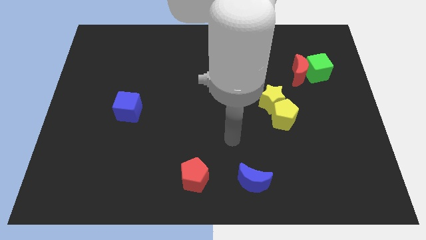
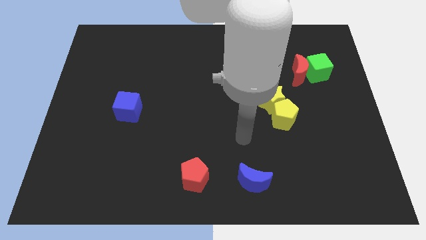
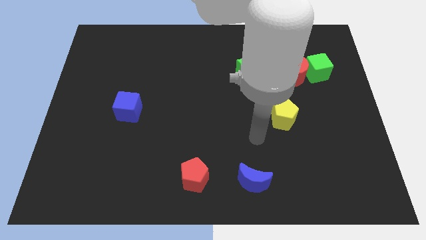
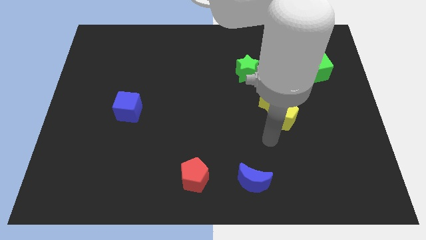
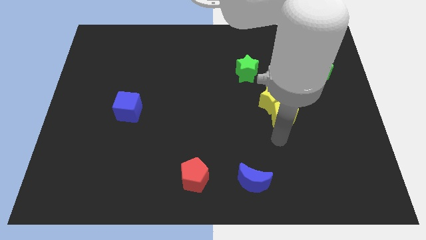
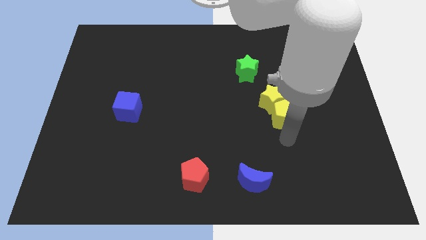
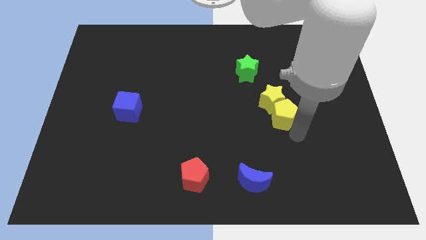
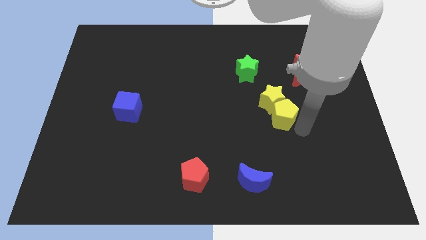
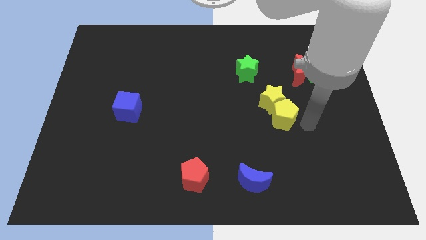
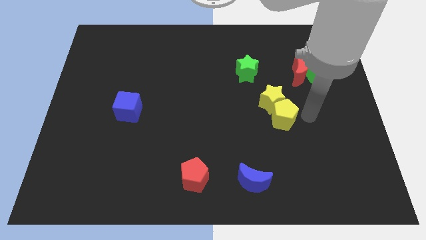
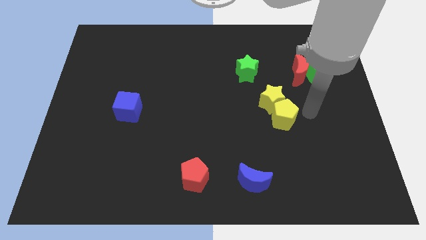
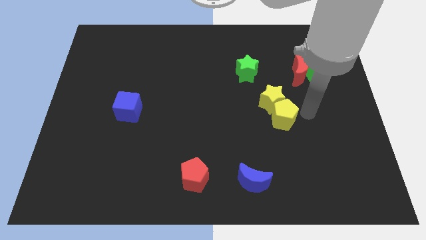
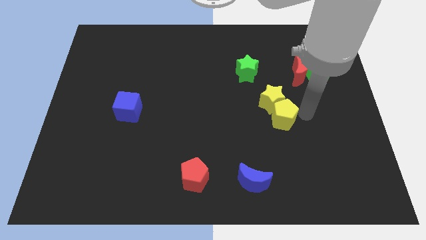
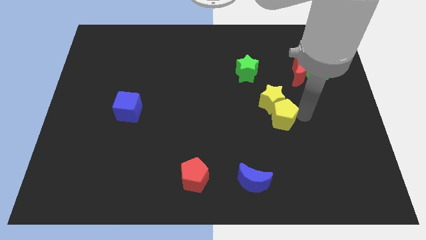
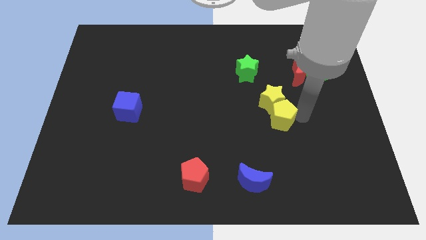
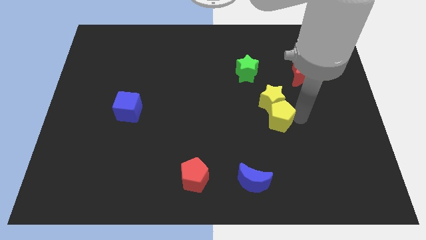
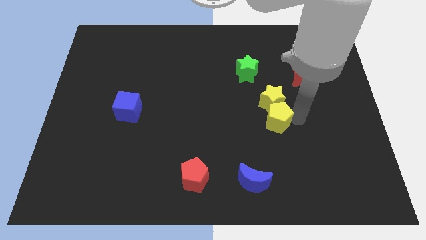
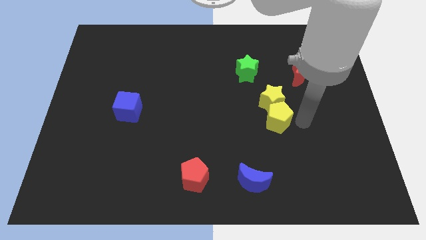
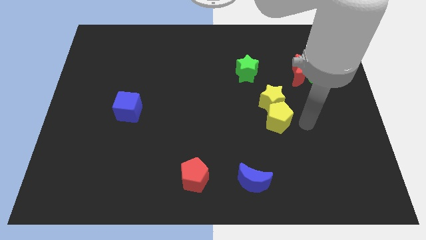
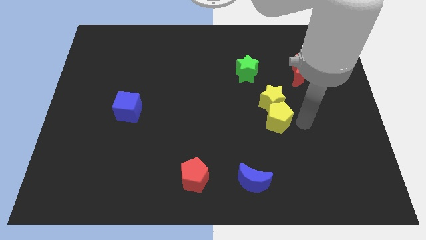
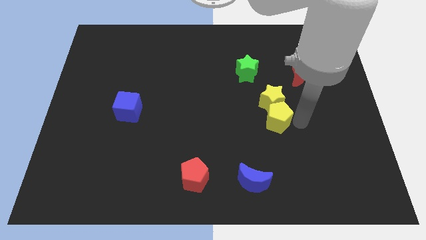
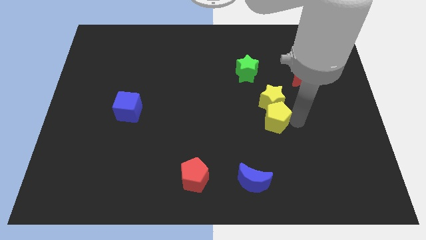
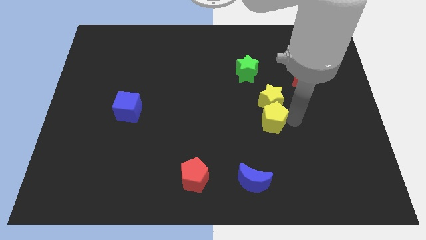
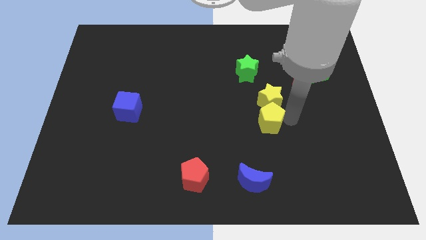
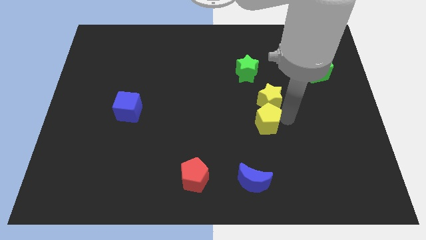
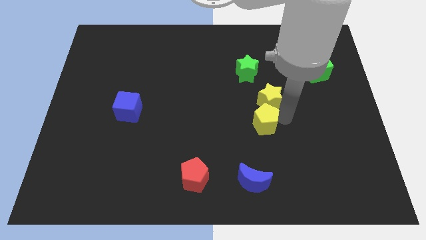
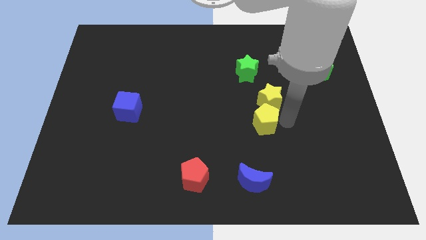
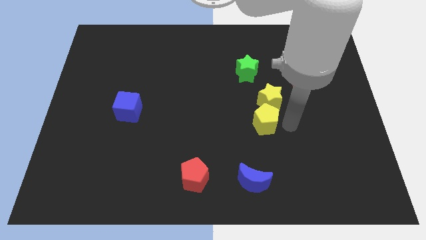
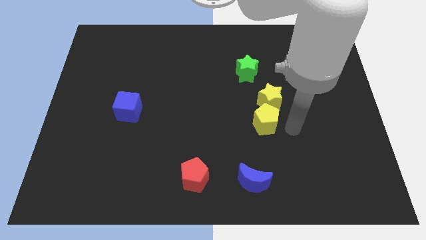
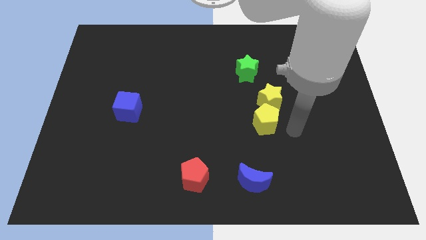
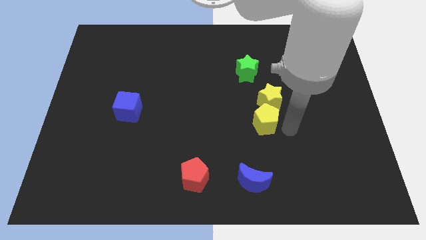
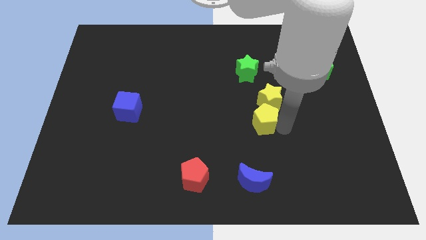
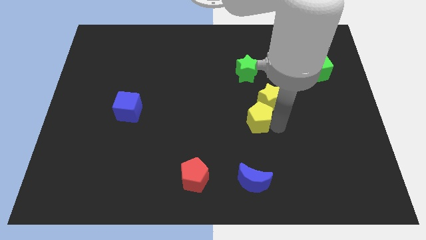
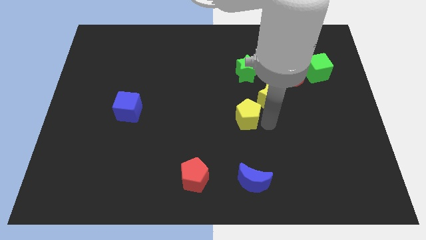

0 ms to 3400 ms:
push the yellow pentagon a little left

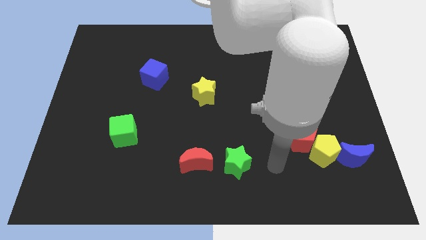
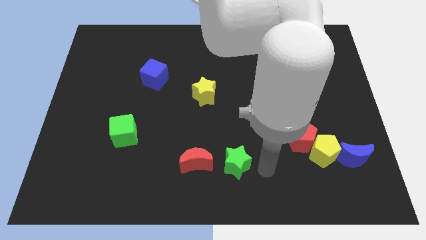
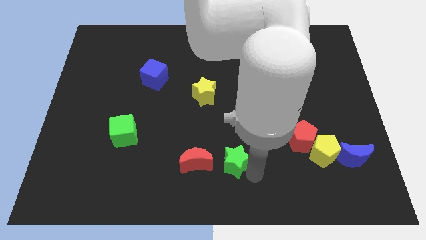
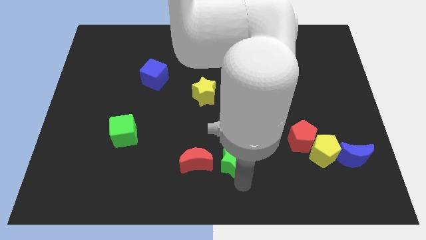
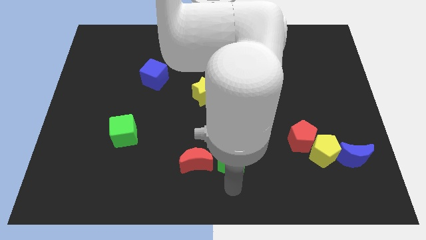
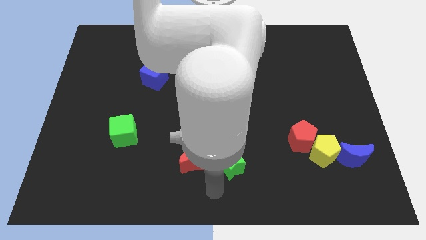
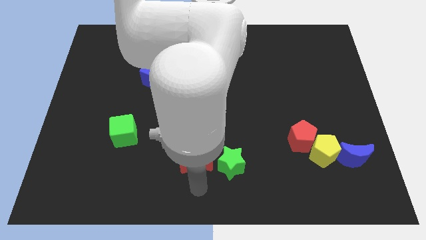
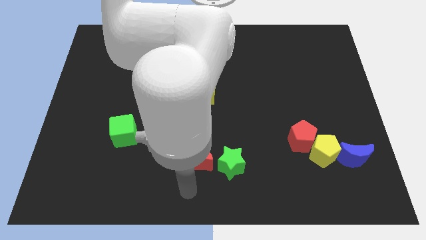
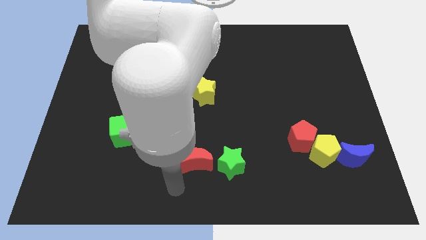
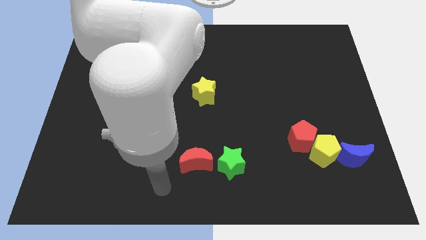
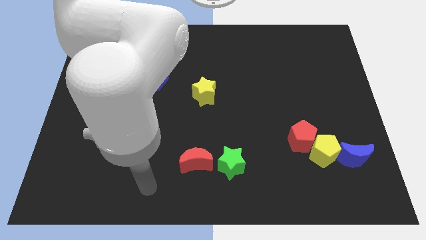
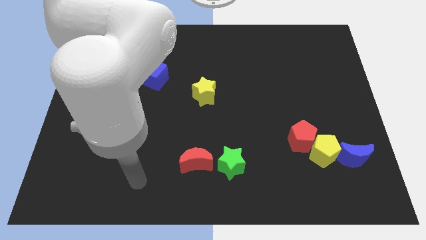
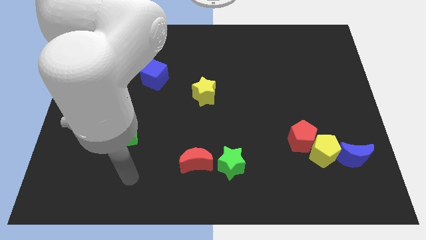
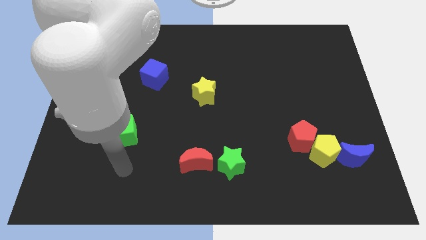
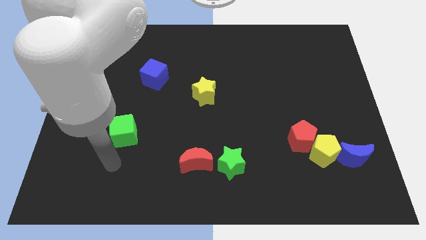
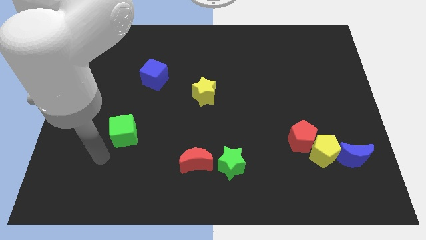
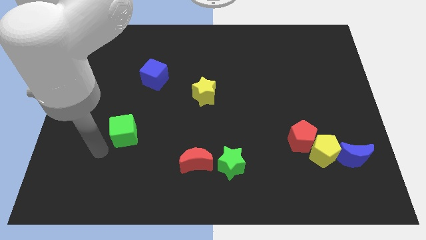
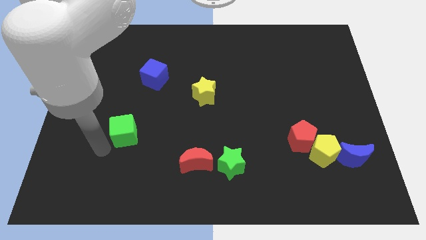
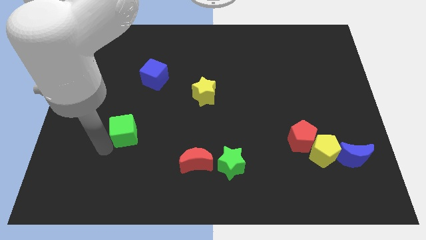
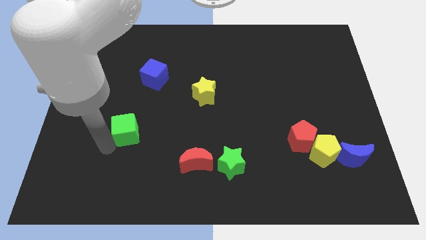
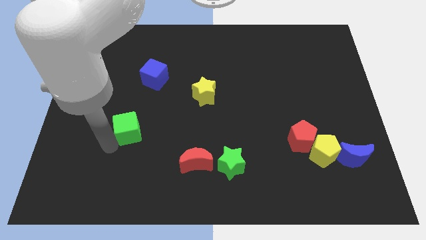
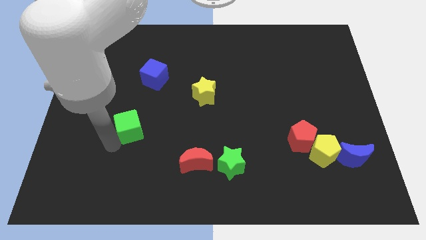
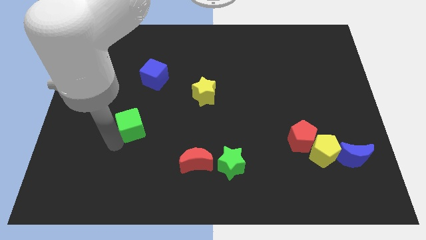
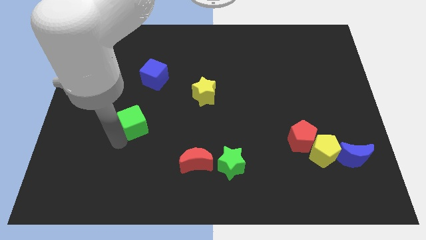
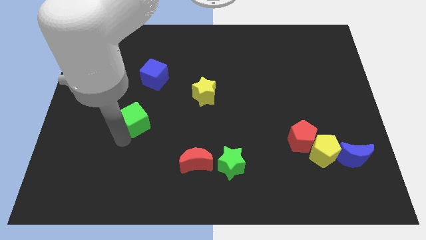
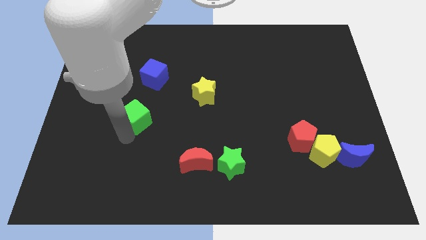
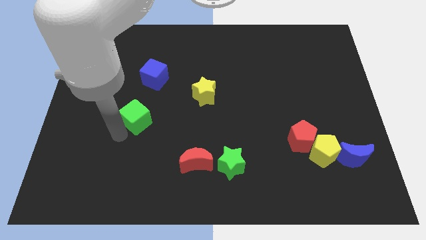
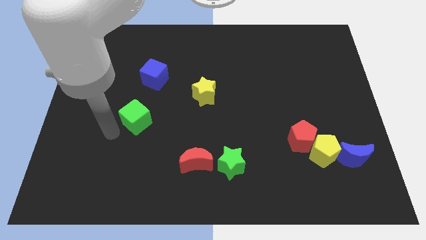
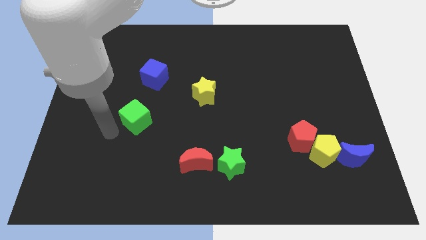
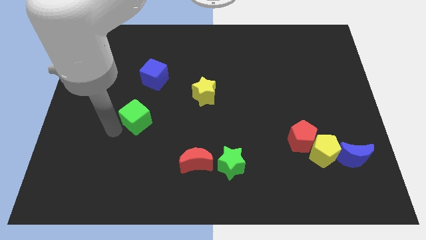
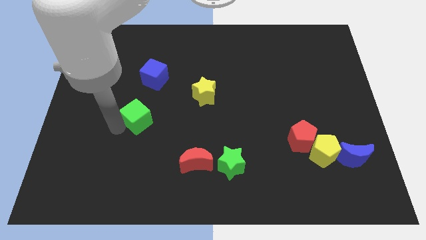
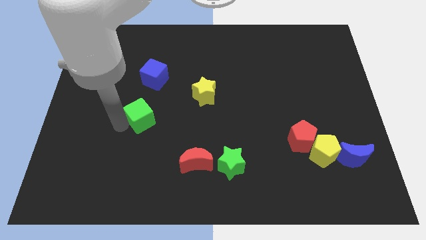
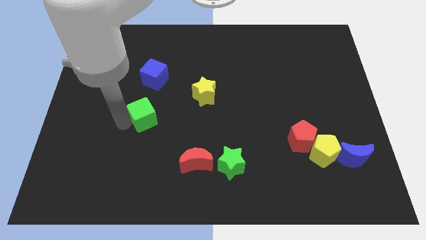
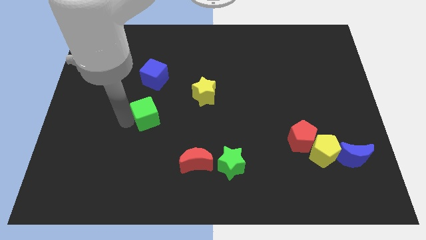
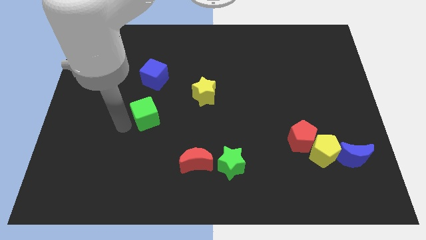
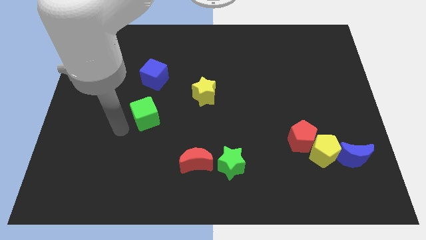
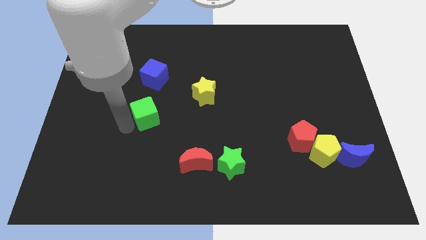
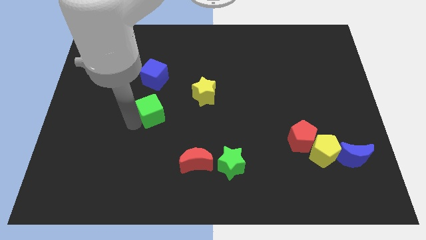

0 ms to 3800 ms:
push the green cube upwards and then to the right somewhat

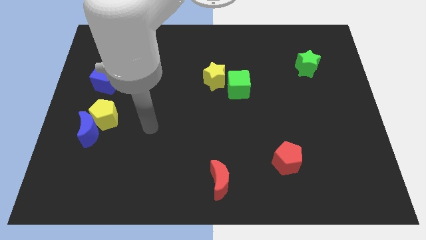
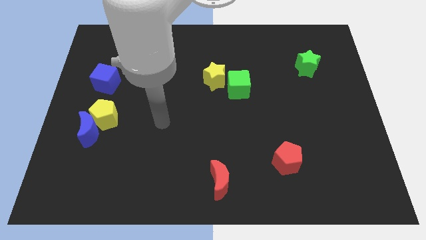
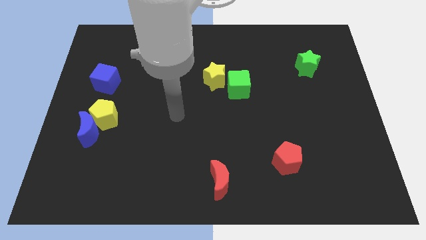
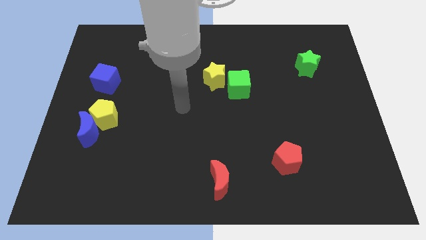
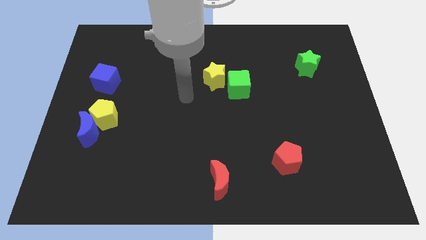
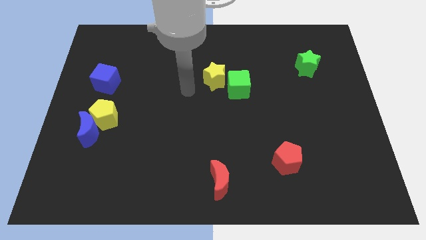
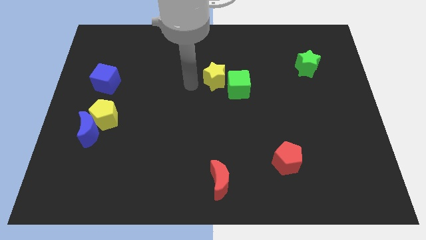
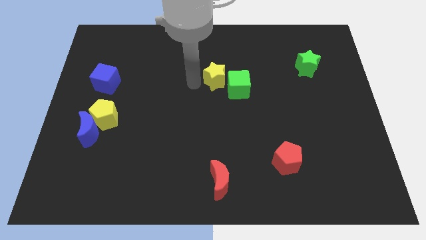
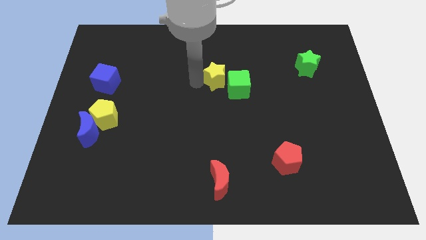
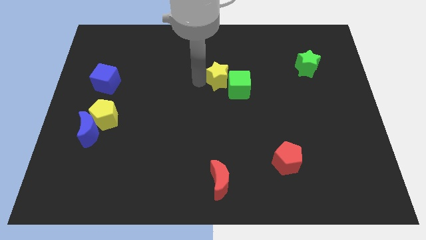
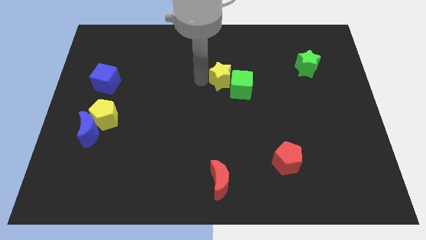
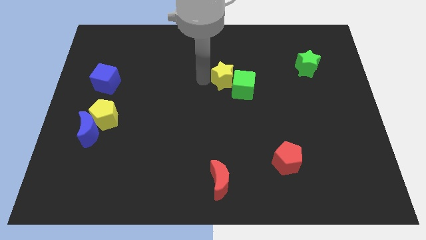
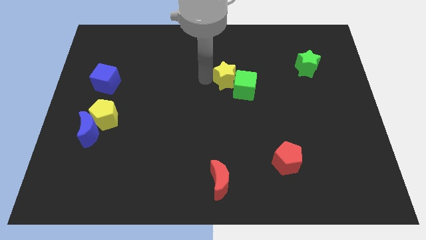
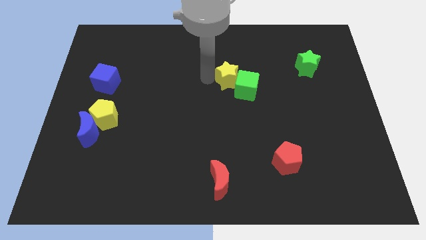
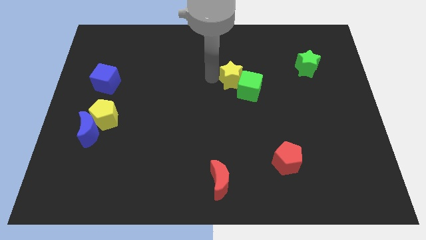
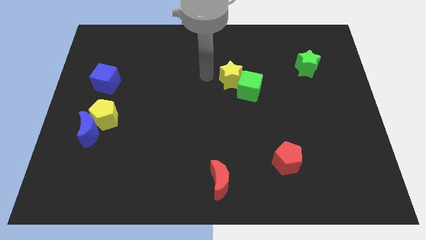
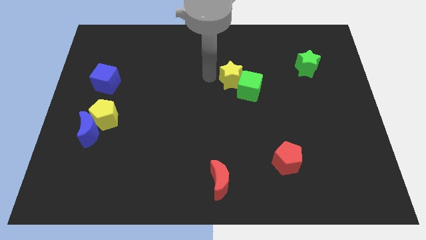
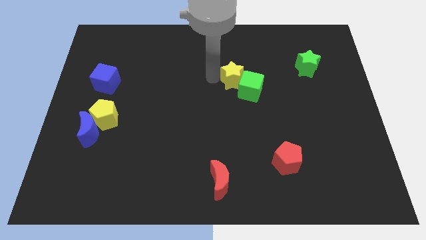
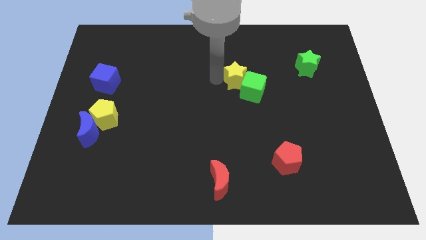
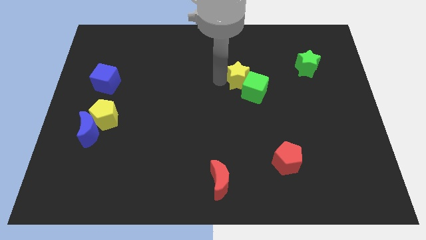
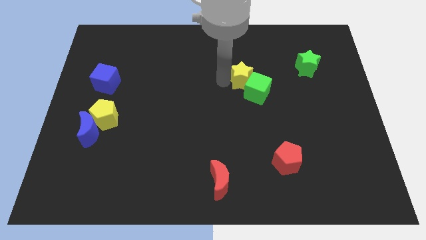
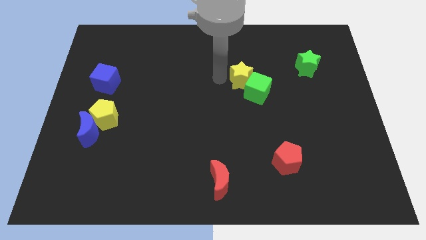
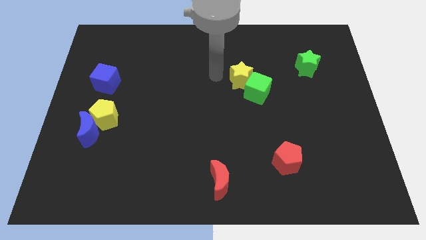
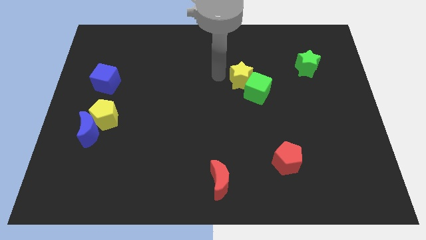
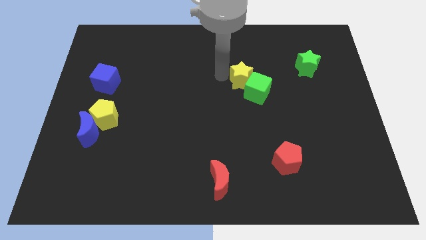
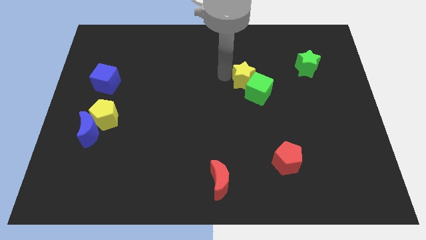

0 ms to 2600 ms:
slide the yellow star to the right a little bit
